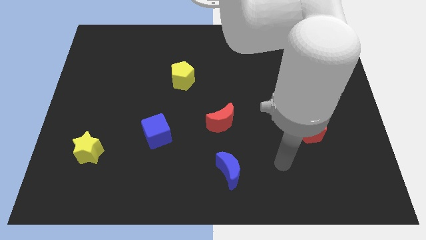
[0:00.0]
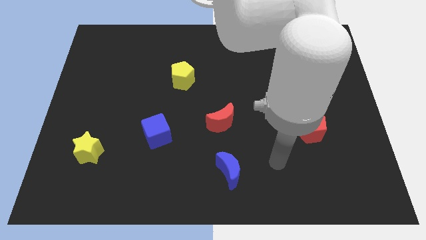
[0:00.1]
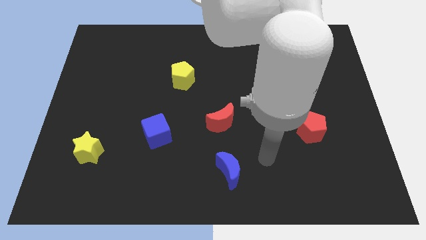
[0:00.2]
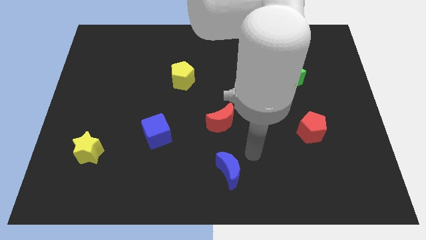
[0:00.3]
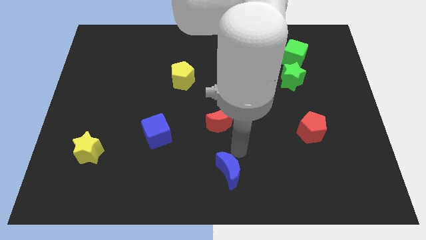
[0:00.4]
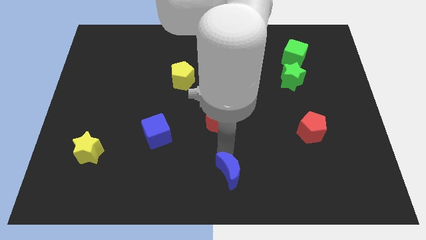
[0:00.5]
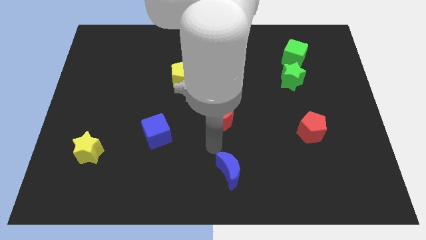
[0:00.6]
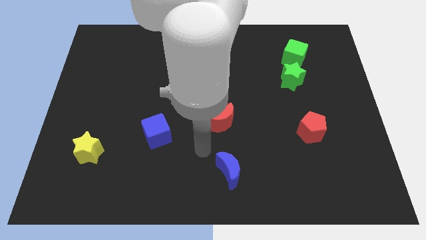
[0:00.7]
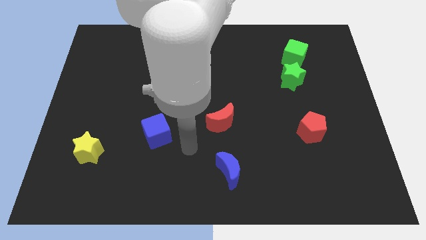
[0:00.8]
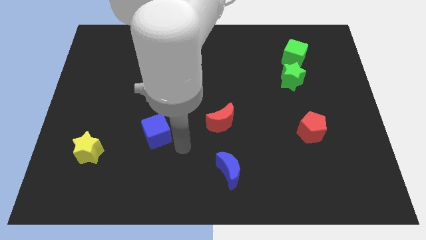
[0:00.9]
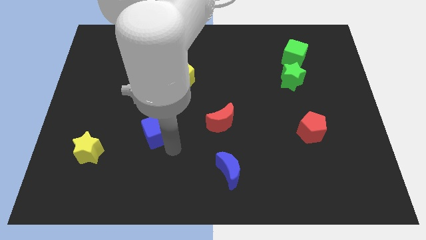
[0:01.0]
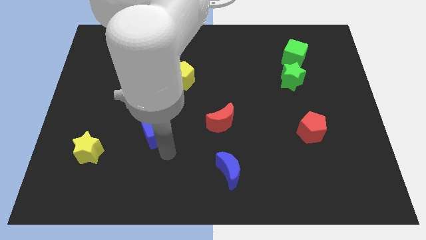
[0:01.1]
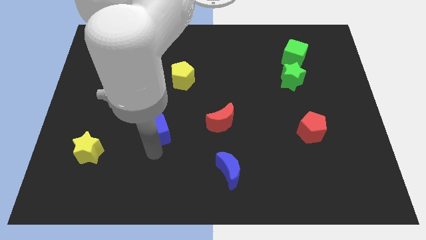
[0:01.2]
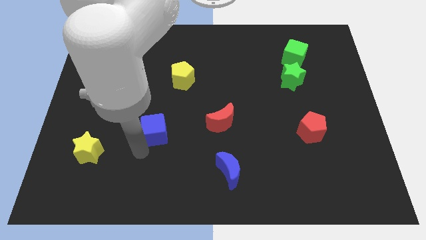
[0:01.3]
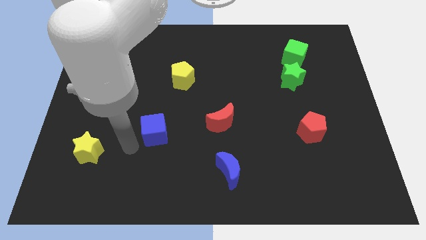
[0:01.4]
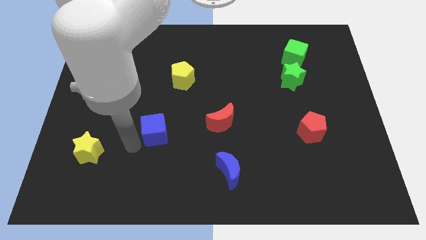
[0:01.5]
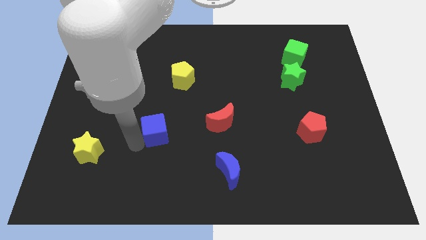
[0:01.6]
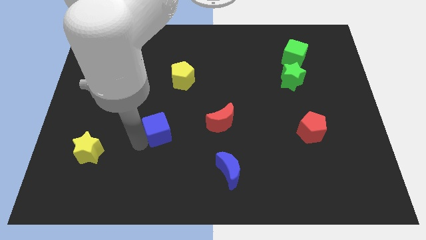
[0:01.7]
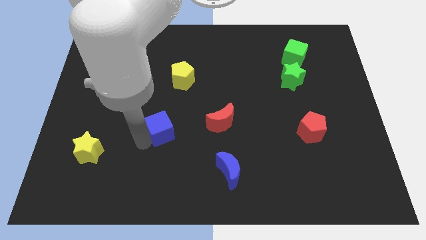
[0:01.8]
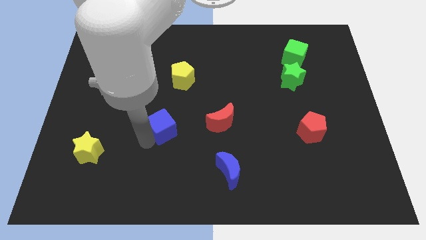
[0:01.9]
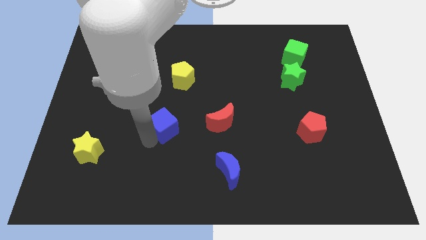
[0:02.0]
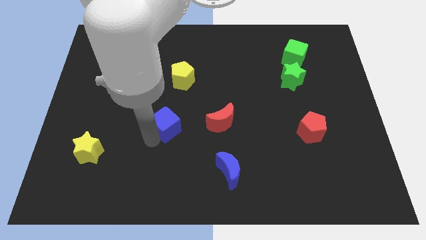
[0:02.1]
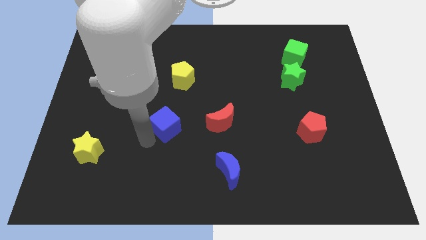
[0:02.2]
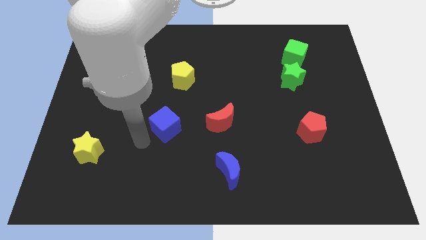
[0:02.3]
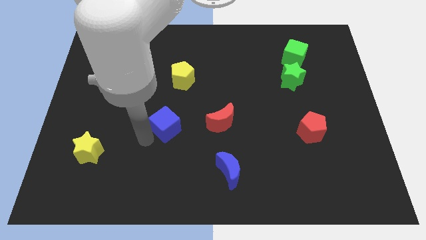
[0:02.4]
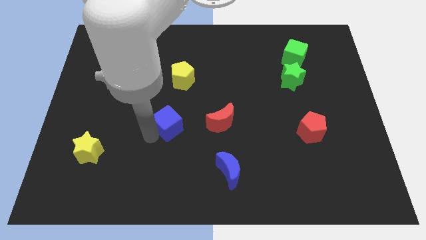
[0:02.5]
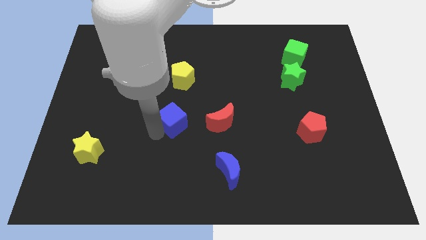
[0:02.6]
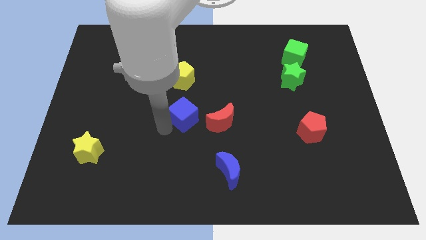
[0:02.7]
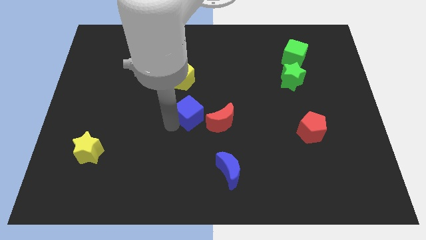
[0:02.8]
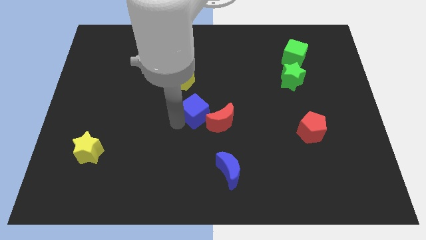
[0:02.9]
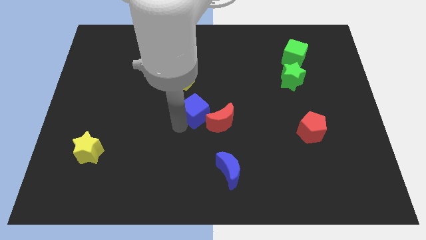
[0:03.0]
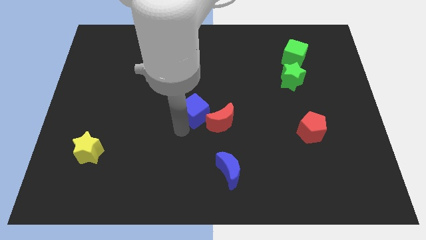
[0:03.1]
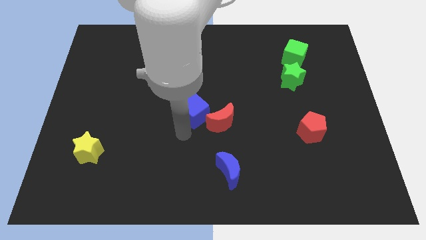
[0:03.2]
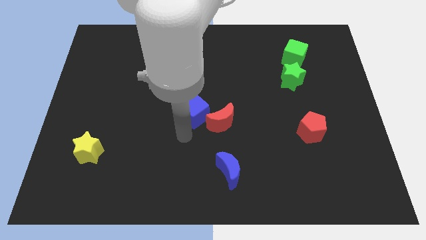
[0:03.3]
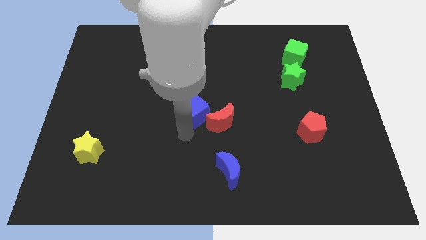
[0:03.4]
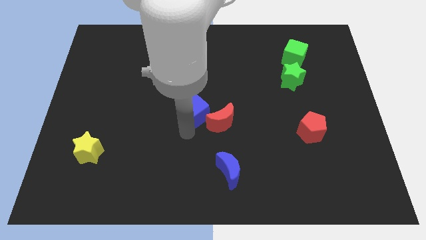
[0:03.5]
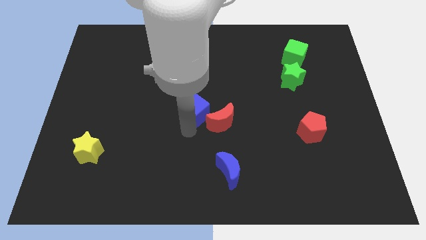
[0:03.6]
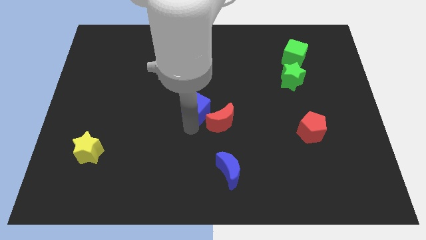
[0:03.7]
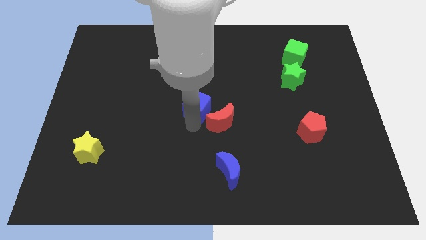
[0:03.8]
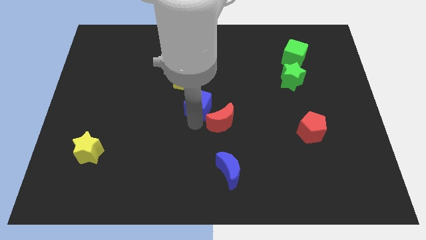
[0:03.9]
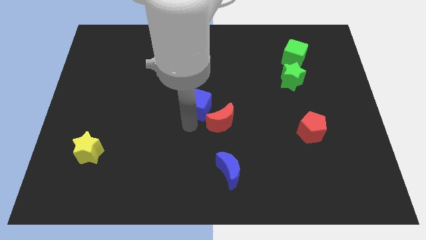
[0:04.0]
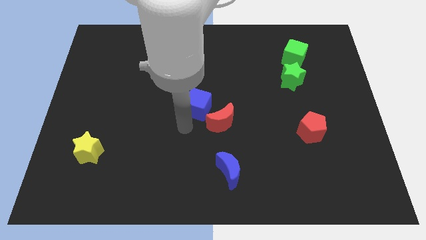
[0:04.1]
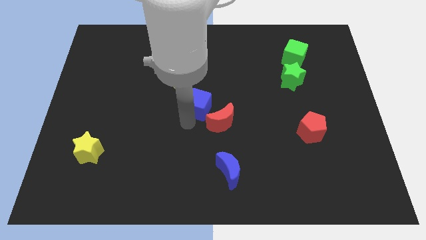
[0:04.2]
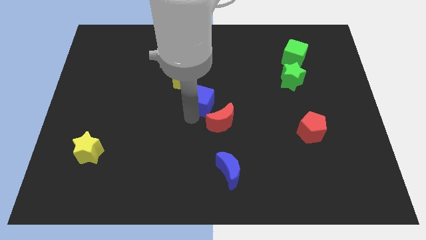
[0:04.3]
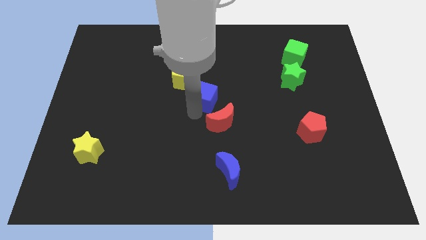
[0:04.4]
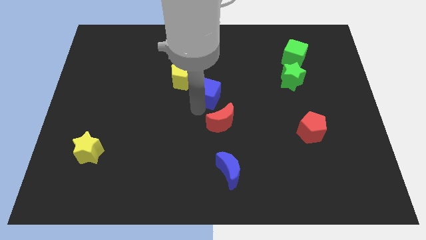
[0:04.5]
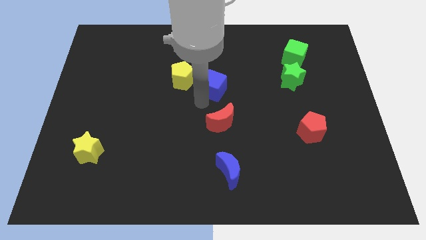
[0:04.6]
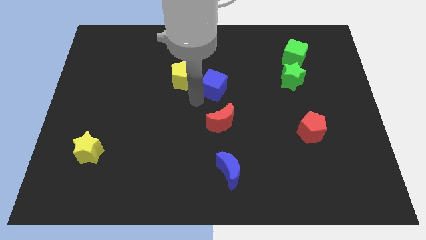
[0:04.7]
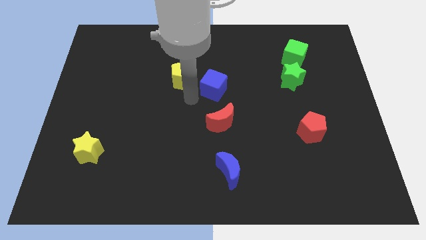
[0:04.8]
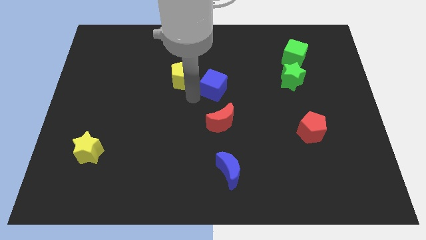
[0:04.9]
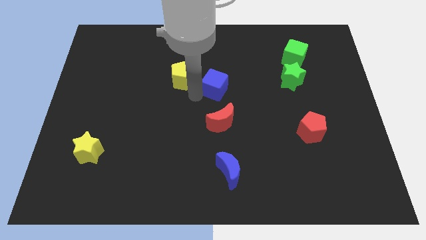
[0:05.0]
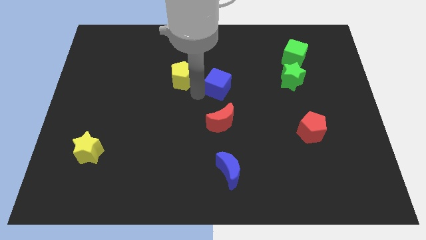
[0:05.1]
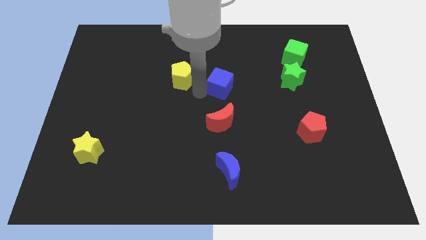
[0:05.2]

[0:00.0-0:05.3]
slide the blue cube upwards and then right

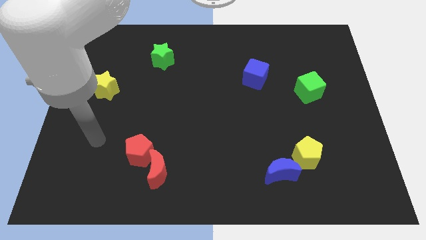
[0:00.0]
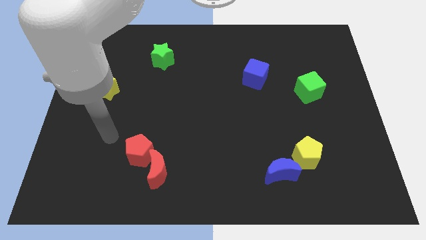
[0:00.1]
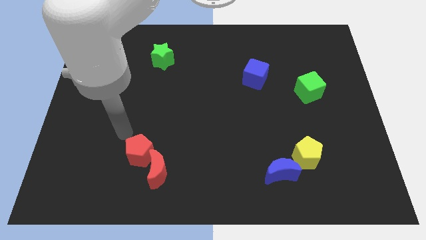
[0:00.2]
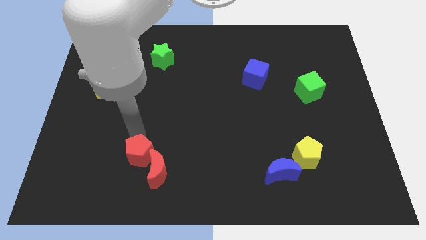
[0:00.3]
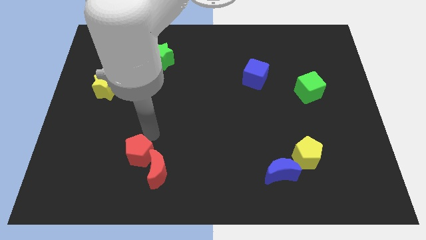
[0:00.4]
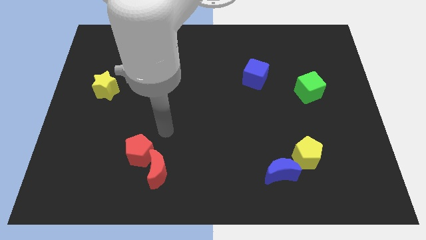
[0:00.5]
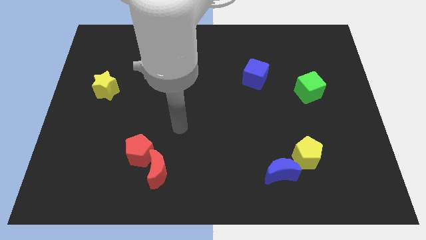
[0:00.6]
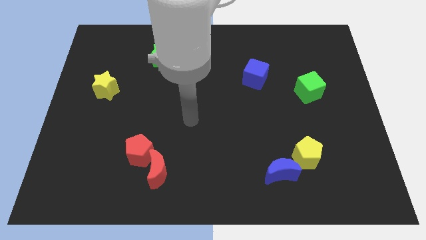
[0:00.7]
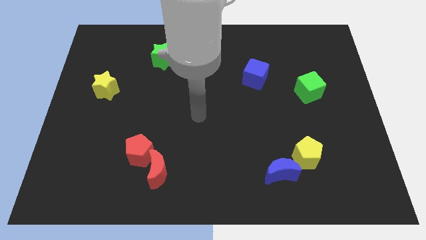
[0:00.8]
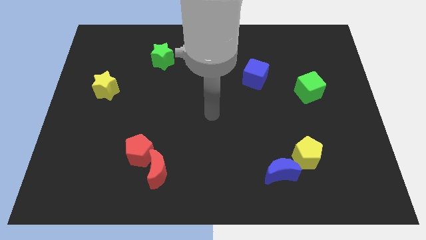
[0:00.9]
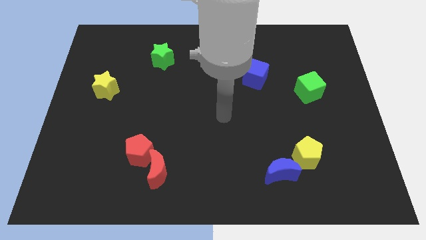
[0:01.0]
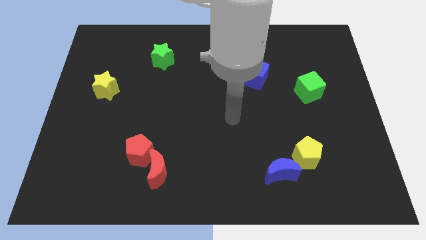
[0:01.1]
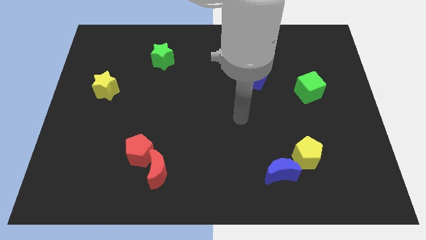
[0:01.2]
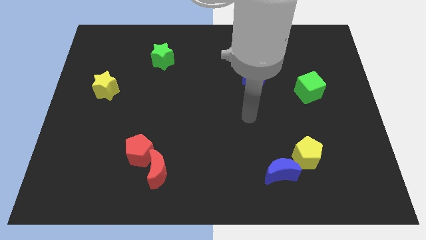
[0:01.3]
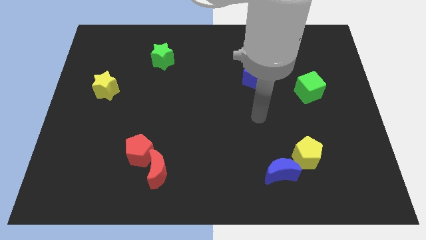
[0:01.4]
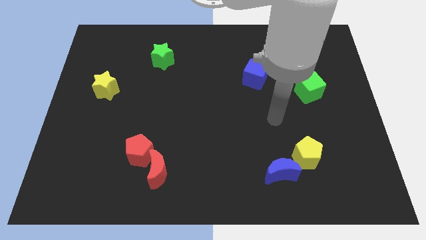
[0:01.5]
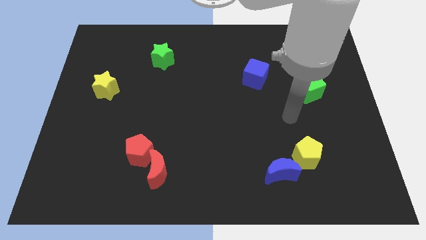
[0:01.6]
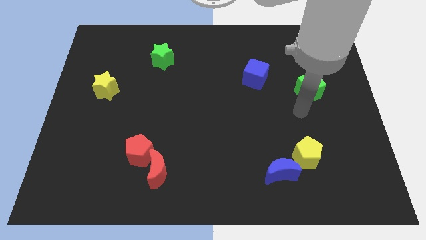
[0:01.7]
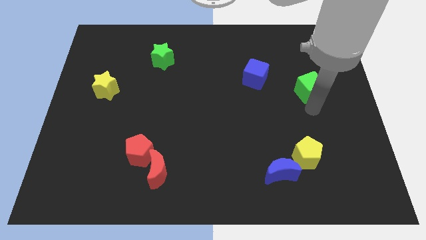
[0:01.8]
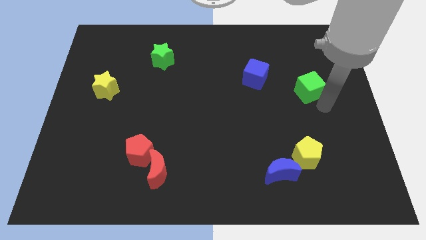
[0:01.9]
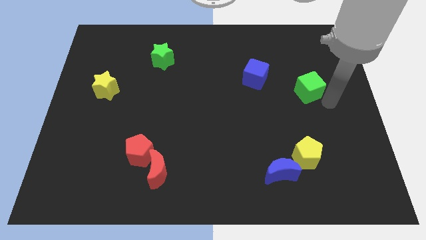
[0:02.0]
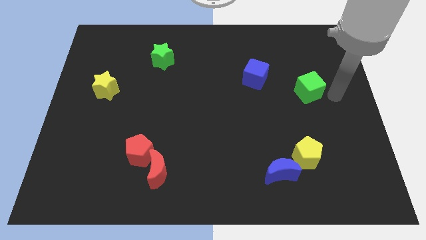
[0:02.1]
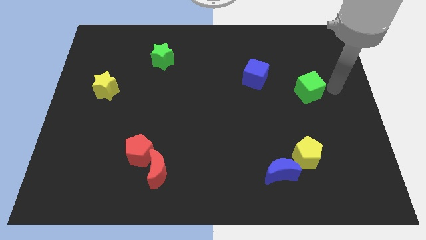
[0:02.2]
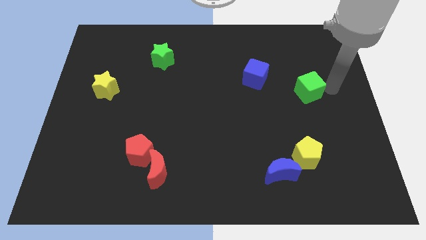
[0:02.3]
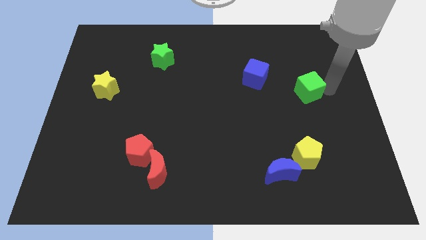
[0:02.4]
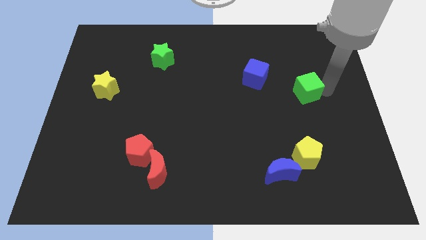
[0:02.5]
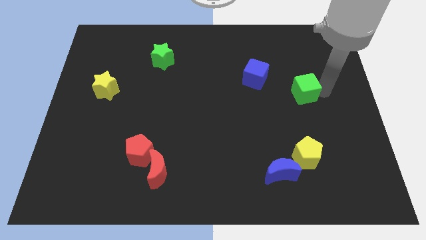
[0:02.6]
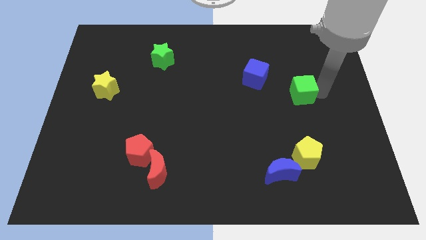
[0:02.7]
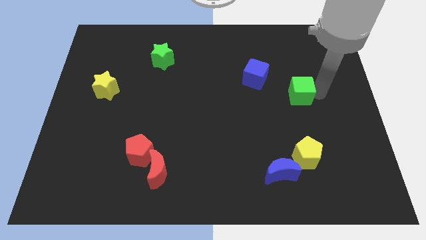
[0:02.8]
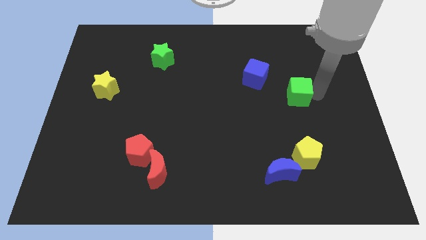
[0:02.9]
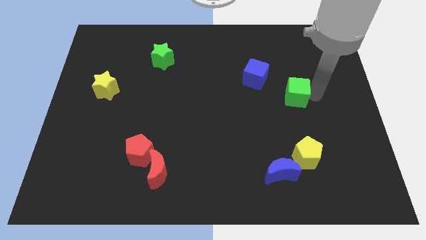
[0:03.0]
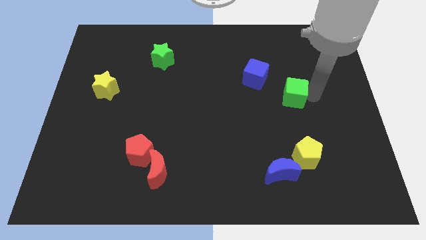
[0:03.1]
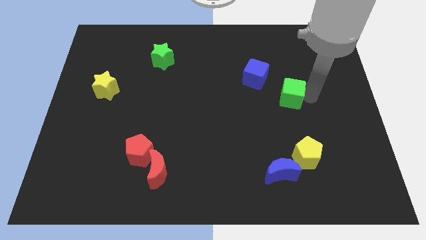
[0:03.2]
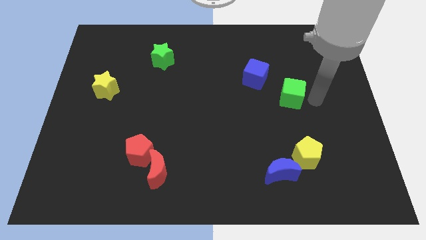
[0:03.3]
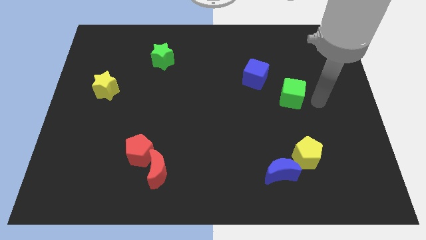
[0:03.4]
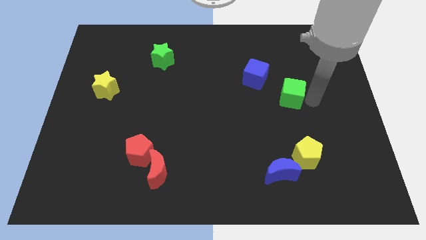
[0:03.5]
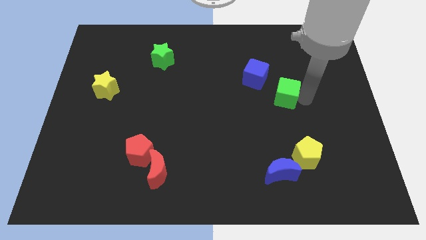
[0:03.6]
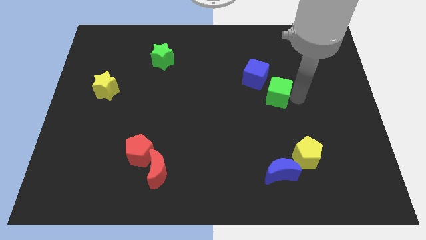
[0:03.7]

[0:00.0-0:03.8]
slightly push the green cube to the left
